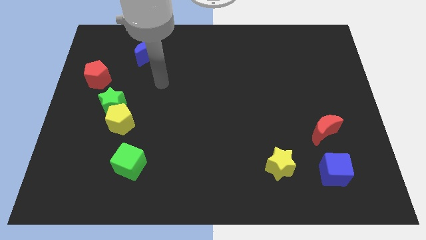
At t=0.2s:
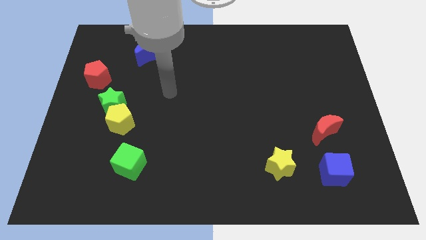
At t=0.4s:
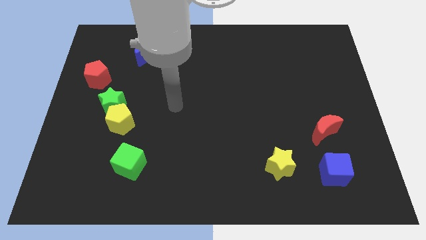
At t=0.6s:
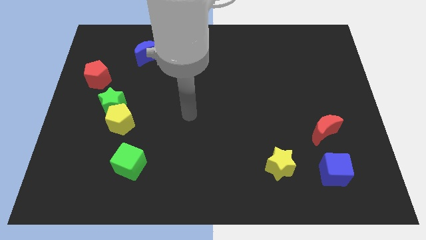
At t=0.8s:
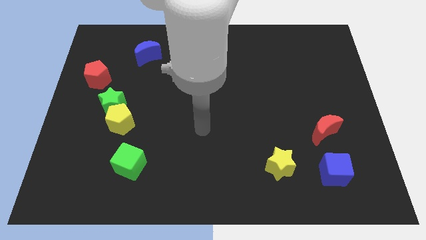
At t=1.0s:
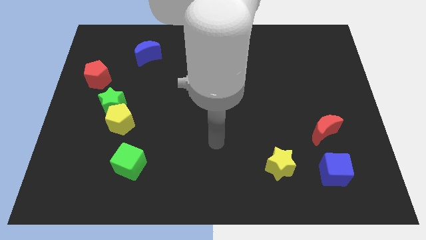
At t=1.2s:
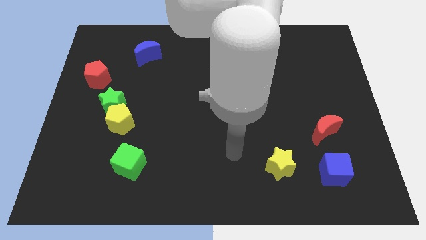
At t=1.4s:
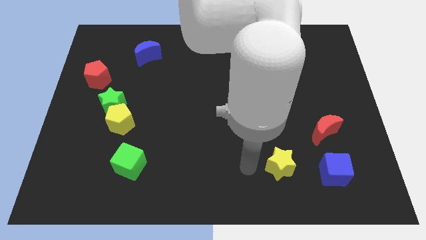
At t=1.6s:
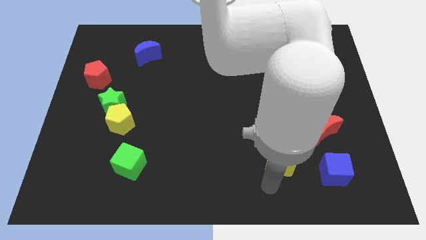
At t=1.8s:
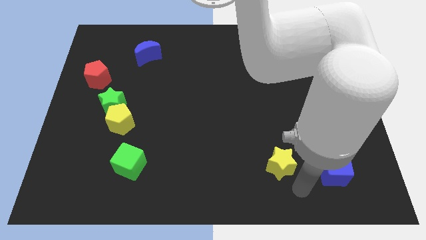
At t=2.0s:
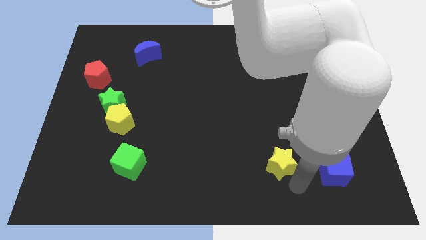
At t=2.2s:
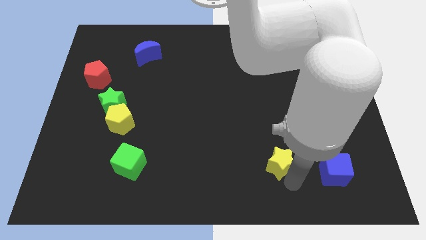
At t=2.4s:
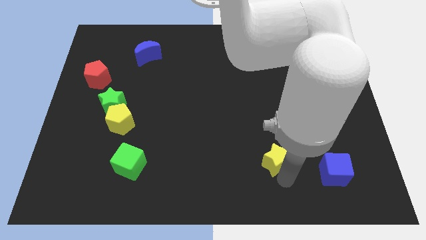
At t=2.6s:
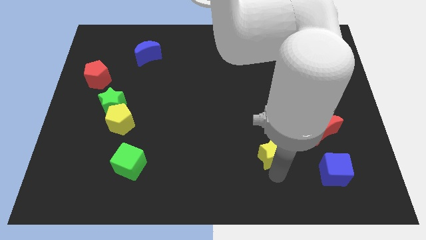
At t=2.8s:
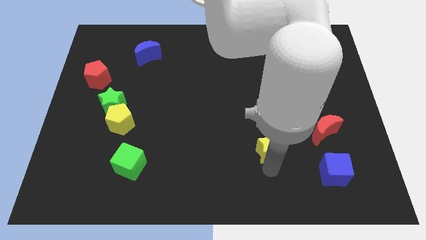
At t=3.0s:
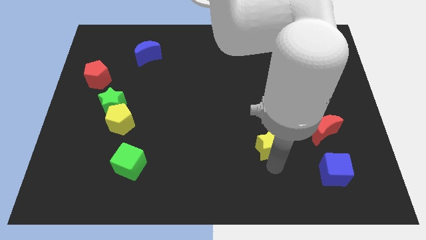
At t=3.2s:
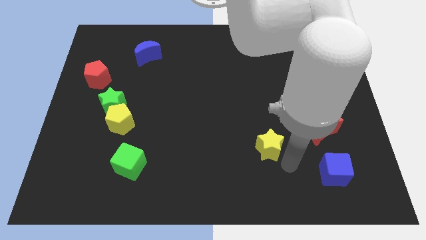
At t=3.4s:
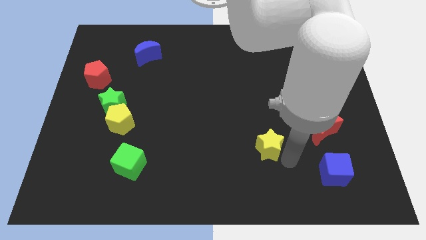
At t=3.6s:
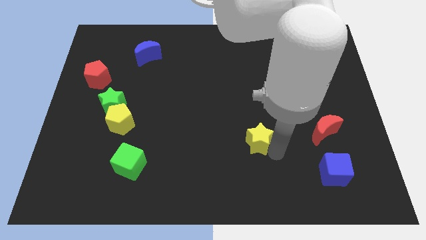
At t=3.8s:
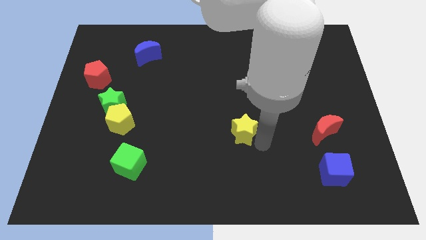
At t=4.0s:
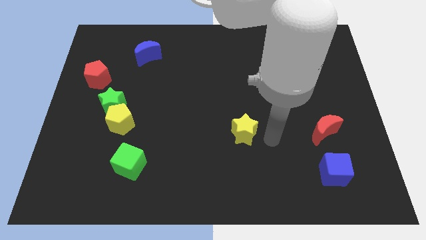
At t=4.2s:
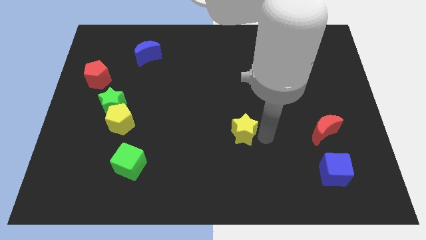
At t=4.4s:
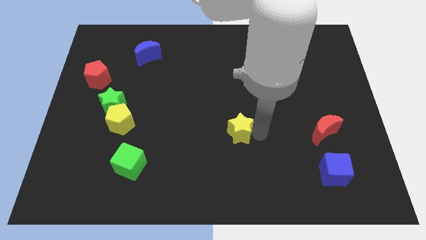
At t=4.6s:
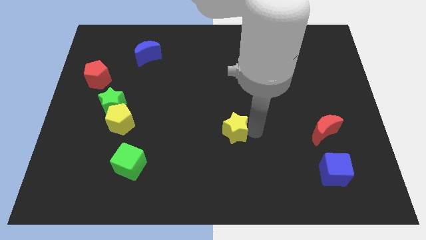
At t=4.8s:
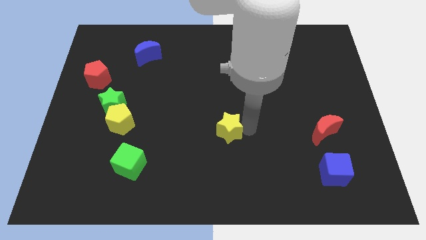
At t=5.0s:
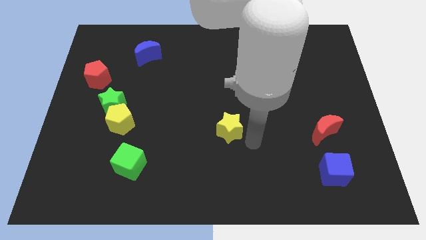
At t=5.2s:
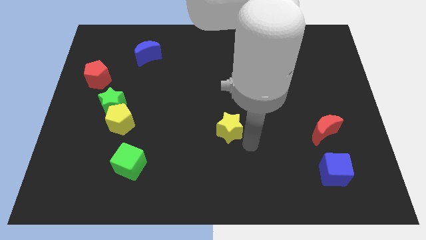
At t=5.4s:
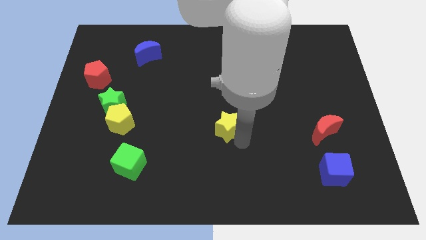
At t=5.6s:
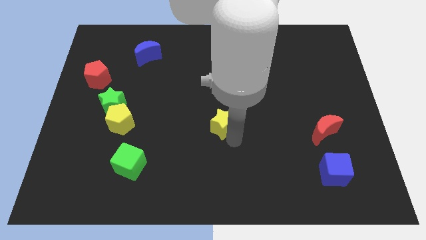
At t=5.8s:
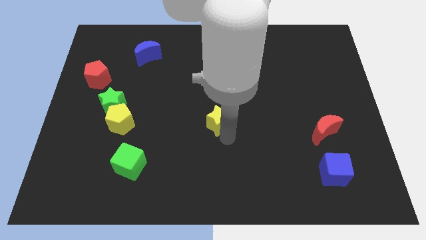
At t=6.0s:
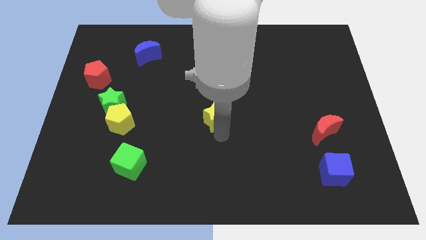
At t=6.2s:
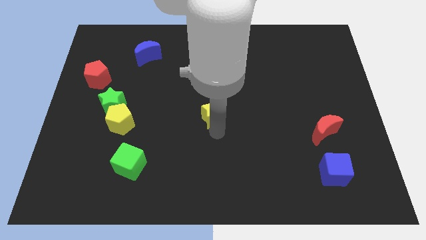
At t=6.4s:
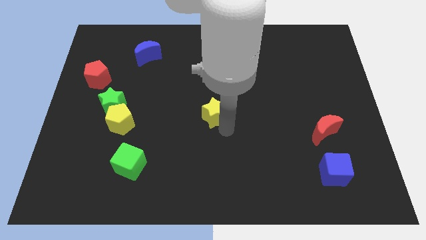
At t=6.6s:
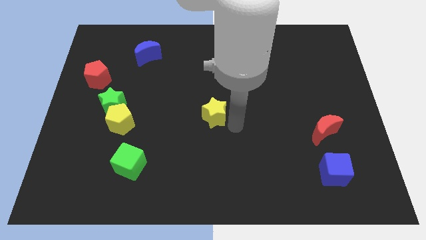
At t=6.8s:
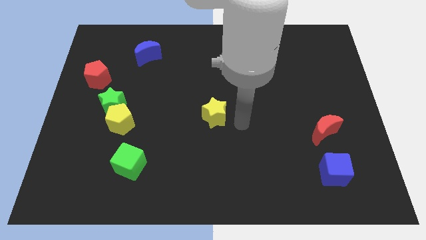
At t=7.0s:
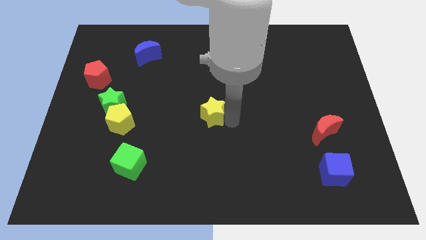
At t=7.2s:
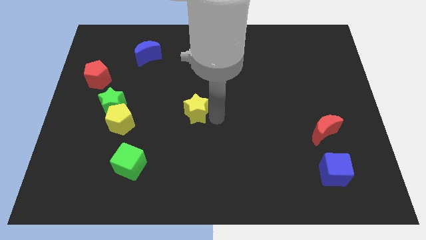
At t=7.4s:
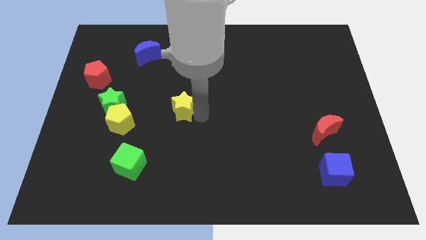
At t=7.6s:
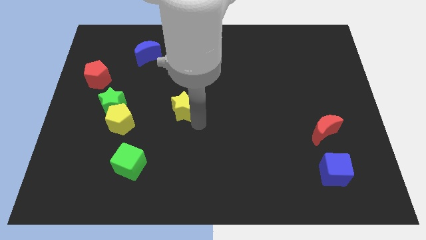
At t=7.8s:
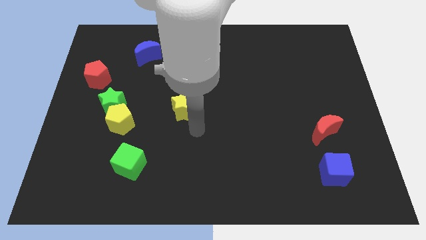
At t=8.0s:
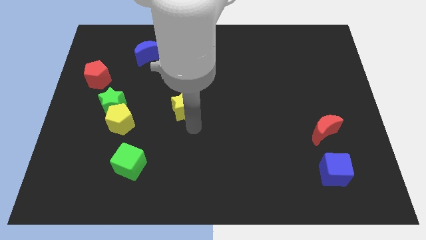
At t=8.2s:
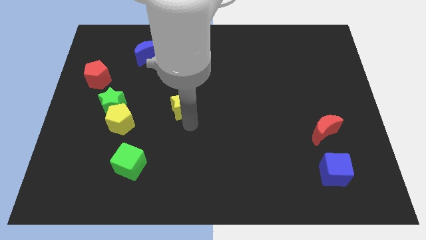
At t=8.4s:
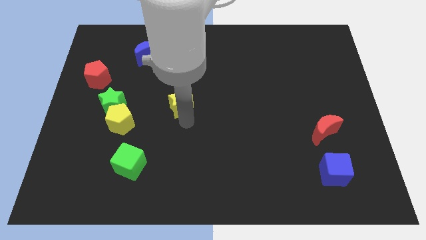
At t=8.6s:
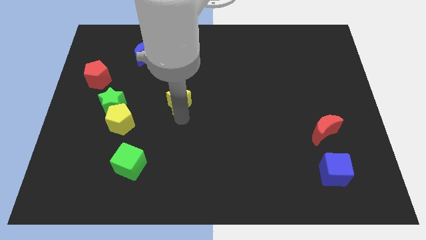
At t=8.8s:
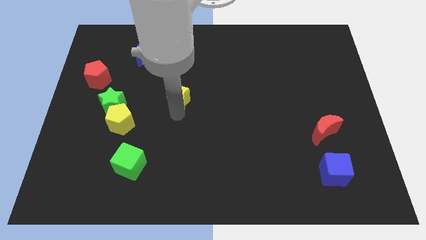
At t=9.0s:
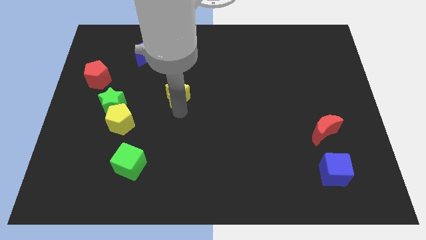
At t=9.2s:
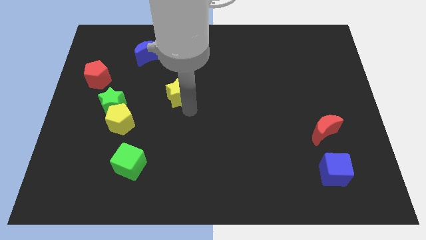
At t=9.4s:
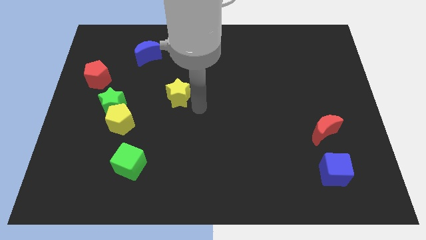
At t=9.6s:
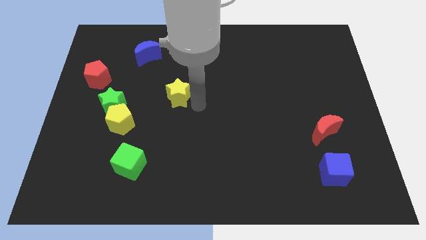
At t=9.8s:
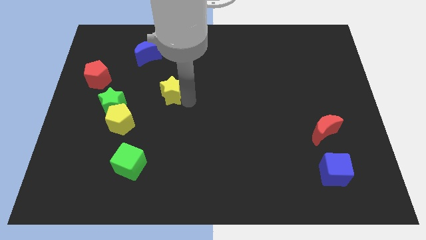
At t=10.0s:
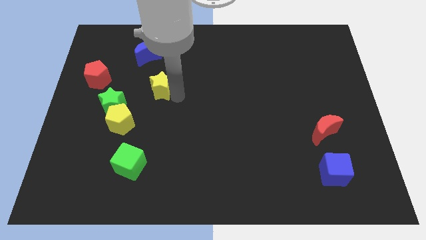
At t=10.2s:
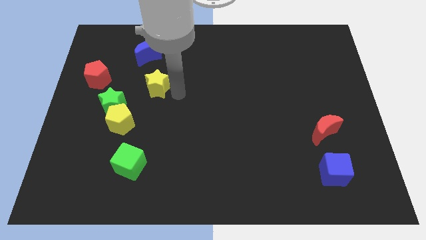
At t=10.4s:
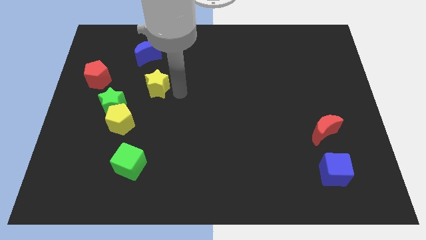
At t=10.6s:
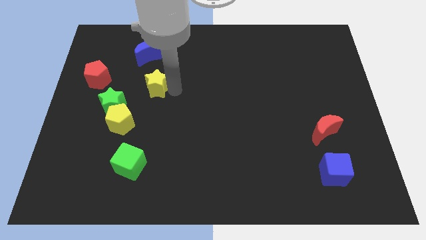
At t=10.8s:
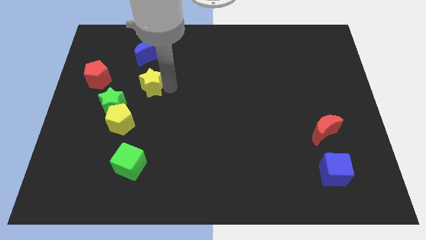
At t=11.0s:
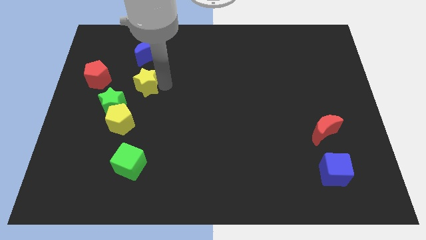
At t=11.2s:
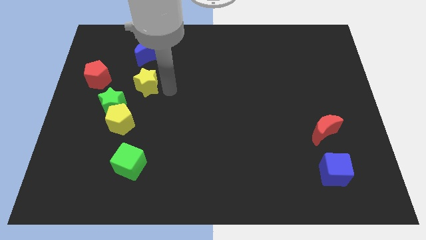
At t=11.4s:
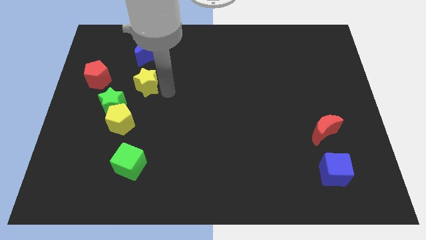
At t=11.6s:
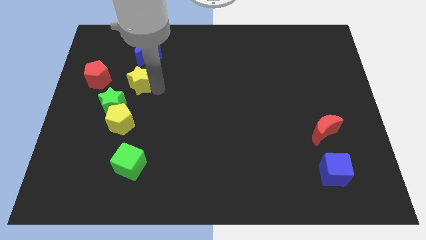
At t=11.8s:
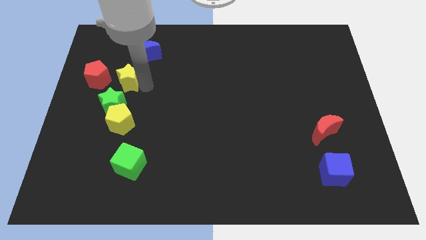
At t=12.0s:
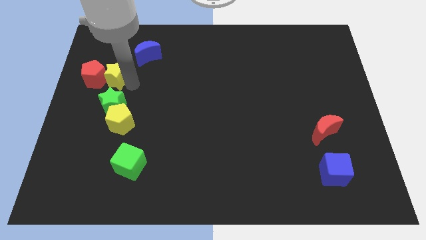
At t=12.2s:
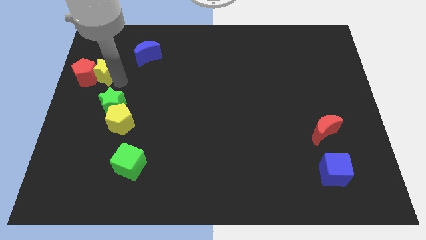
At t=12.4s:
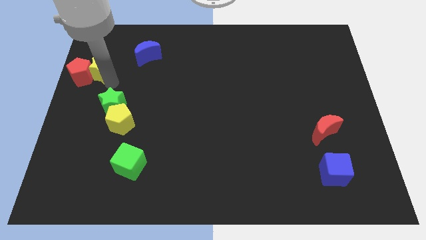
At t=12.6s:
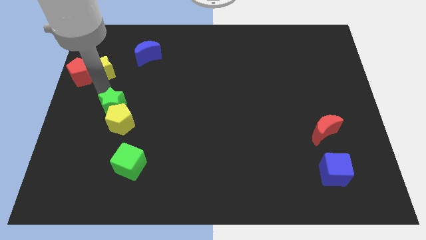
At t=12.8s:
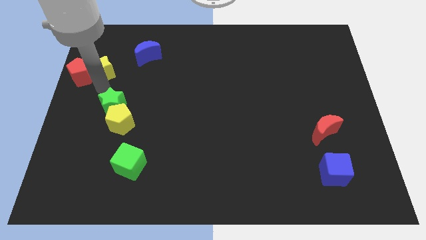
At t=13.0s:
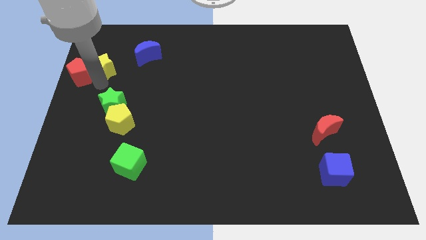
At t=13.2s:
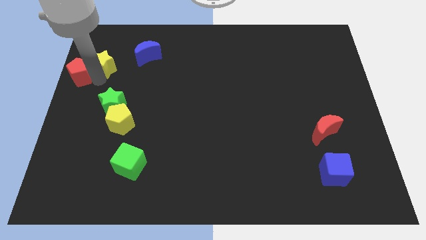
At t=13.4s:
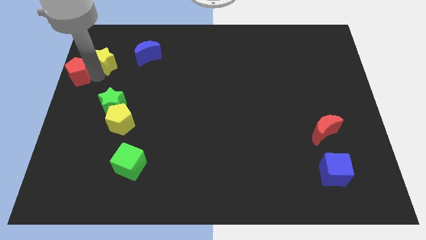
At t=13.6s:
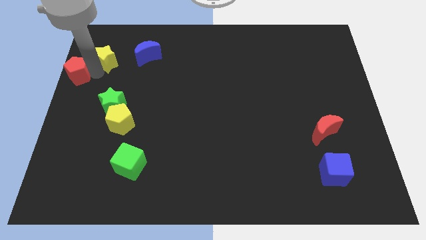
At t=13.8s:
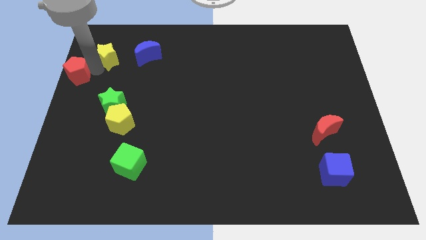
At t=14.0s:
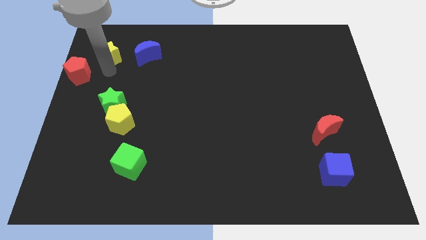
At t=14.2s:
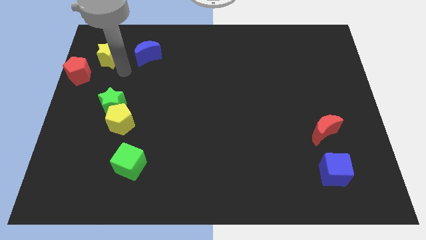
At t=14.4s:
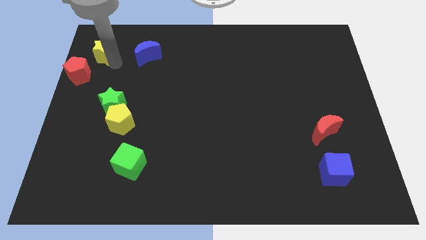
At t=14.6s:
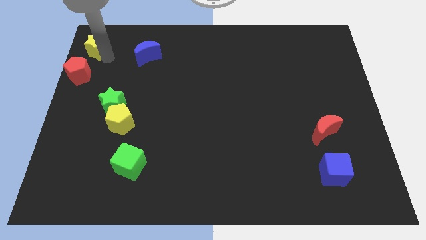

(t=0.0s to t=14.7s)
put the yellow star to the top left
